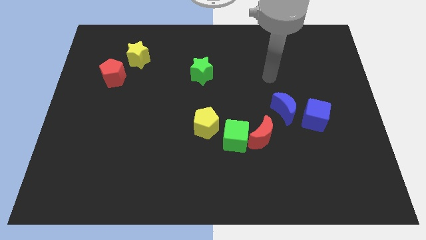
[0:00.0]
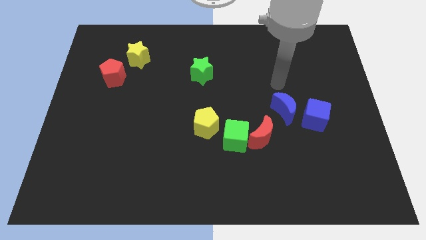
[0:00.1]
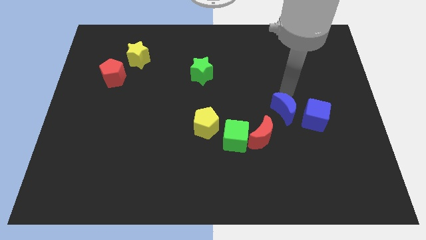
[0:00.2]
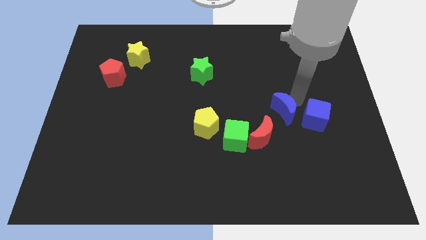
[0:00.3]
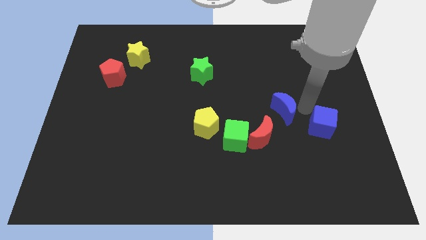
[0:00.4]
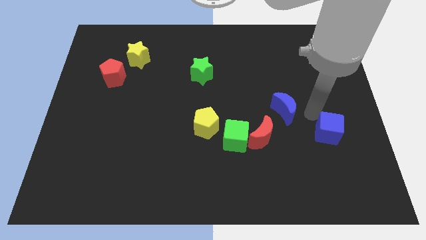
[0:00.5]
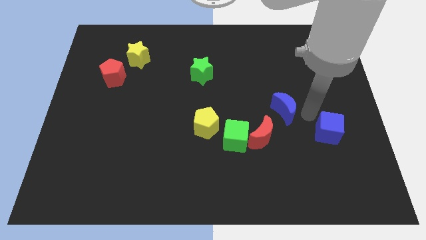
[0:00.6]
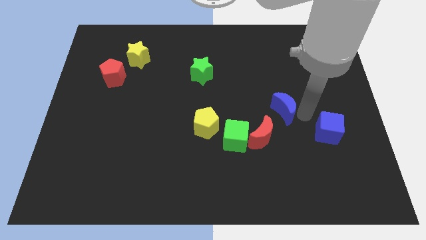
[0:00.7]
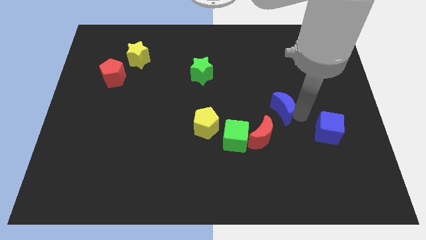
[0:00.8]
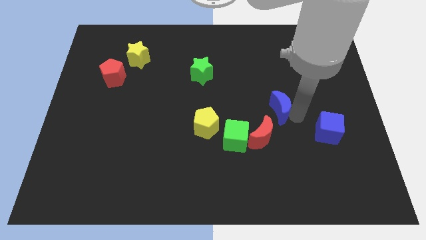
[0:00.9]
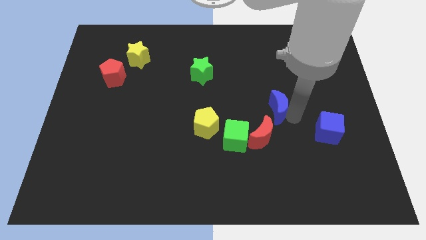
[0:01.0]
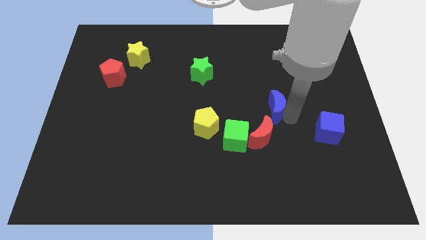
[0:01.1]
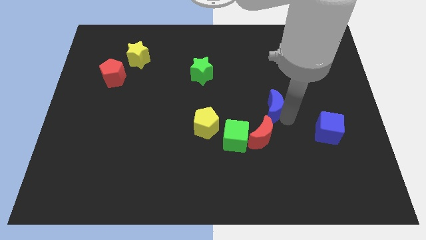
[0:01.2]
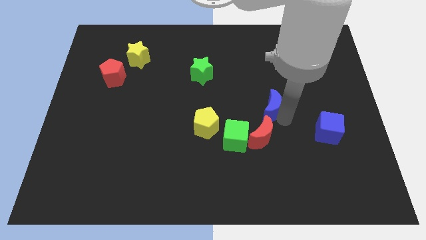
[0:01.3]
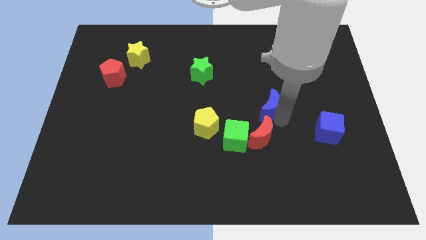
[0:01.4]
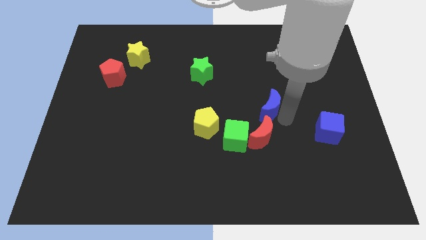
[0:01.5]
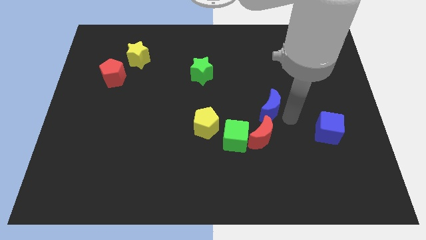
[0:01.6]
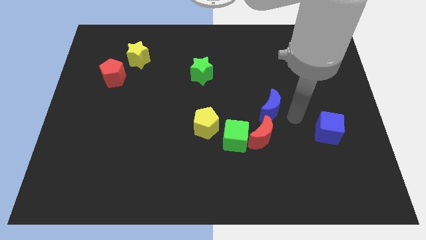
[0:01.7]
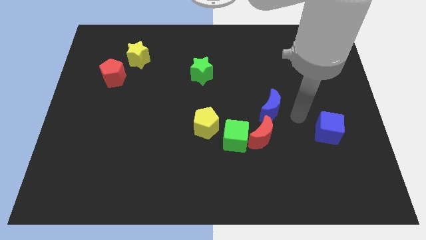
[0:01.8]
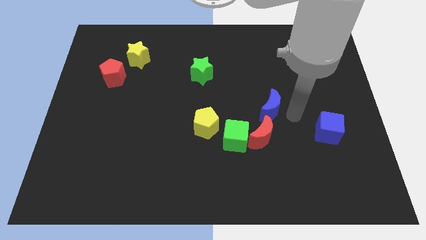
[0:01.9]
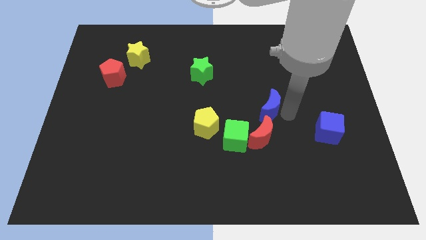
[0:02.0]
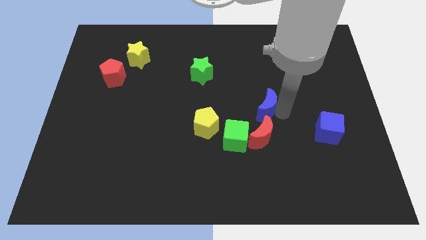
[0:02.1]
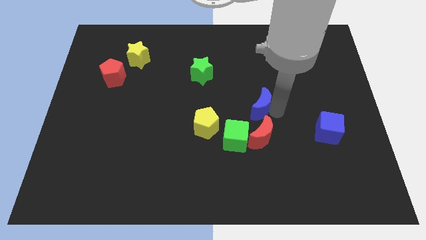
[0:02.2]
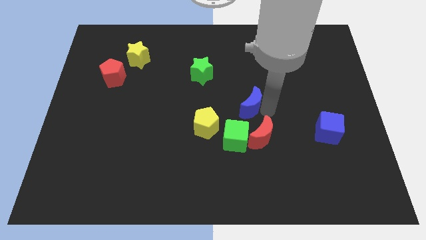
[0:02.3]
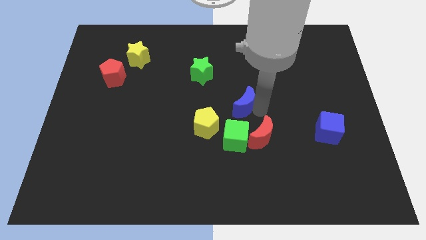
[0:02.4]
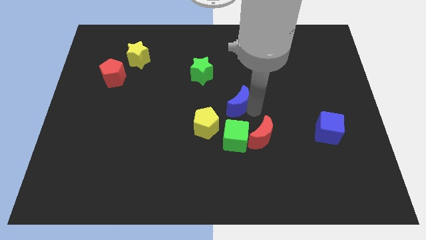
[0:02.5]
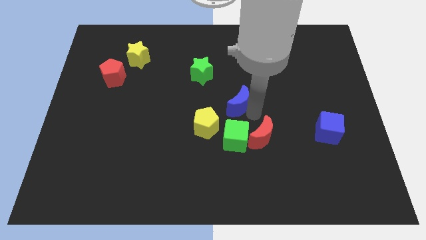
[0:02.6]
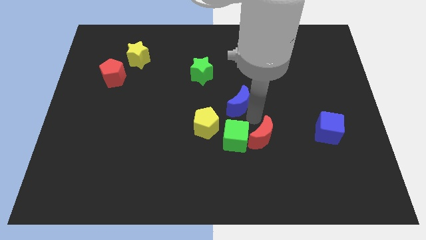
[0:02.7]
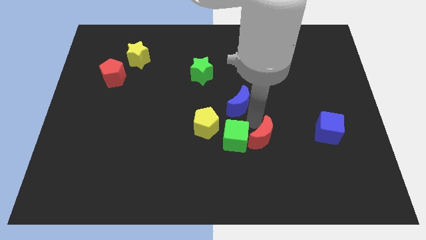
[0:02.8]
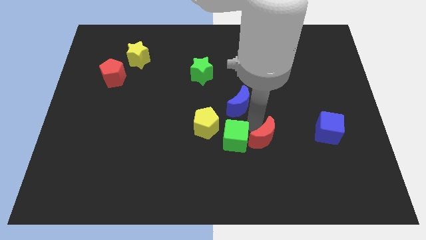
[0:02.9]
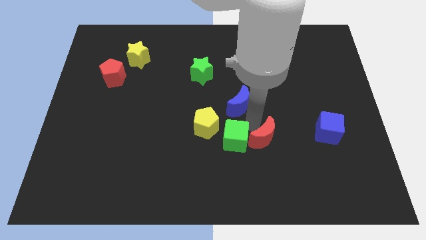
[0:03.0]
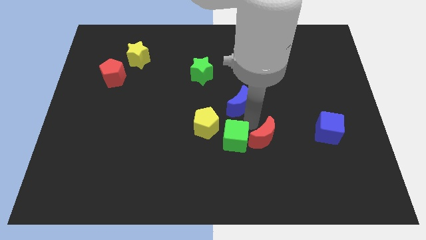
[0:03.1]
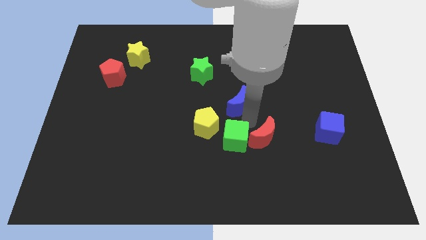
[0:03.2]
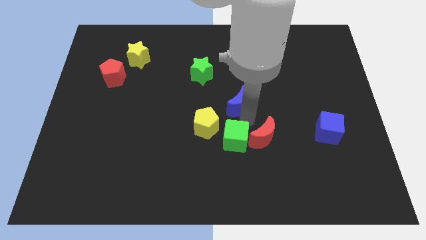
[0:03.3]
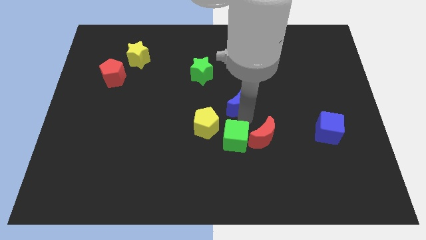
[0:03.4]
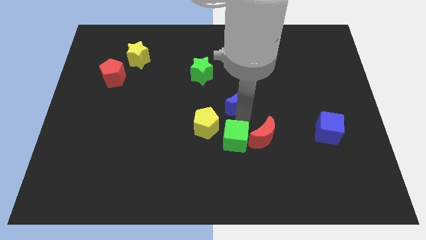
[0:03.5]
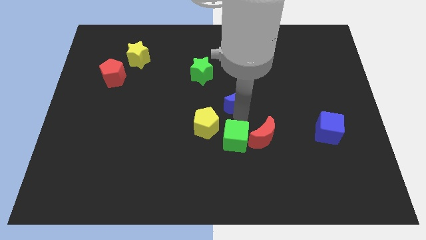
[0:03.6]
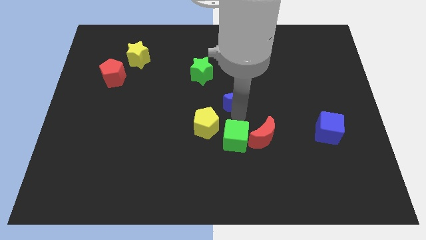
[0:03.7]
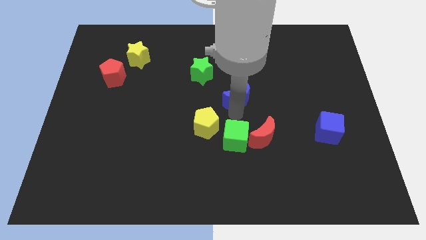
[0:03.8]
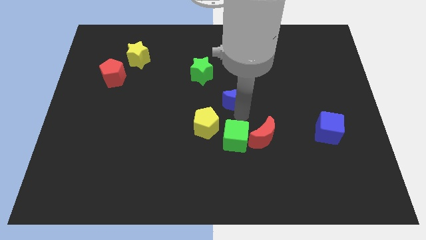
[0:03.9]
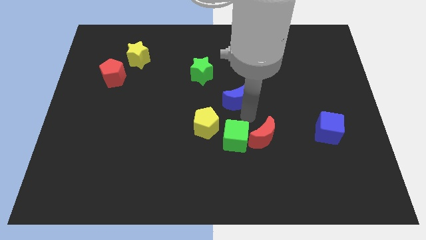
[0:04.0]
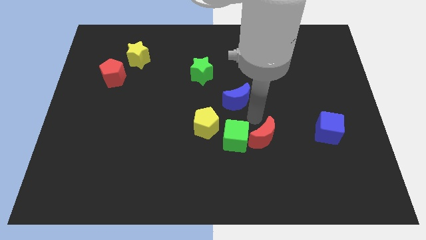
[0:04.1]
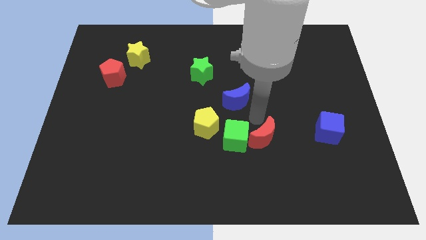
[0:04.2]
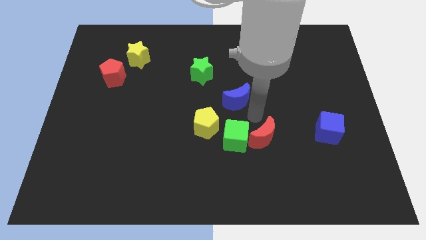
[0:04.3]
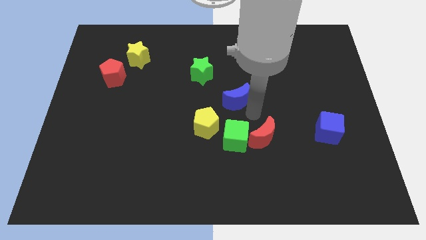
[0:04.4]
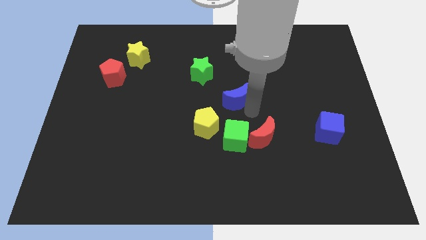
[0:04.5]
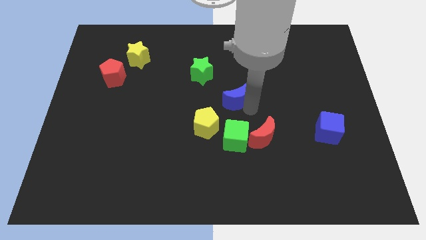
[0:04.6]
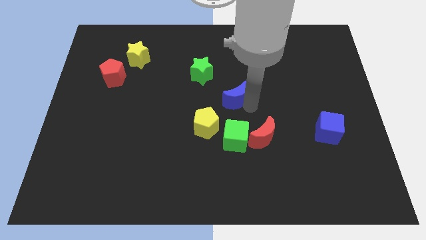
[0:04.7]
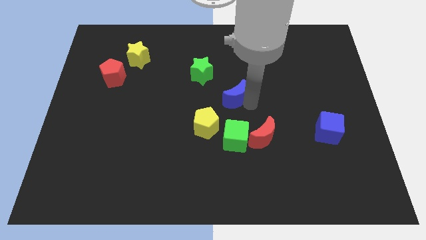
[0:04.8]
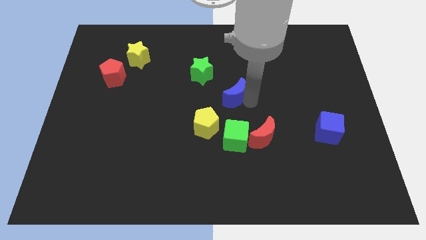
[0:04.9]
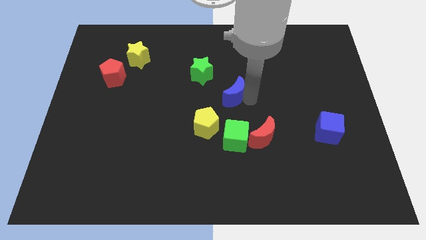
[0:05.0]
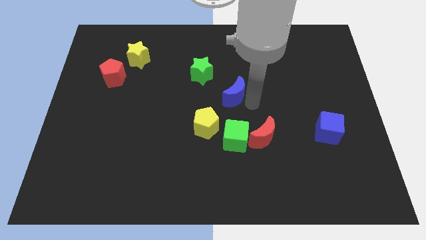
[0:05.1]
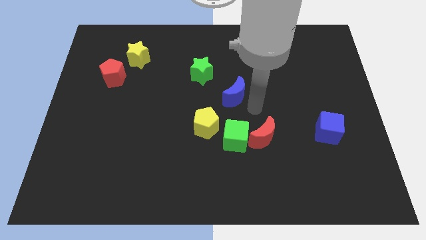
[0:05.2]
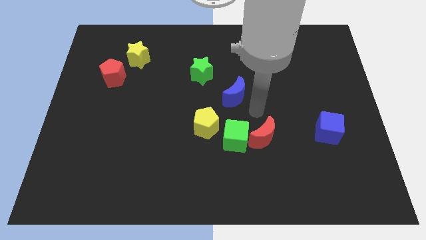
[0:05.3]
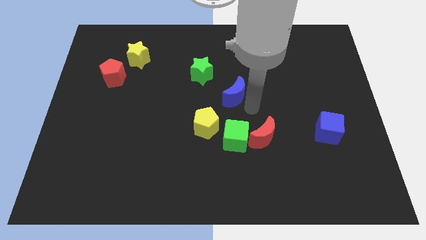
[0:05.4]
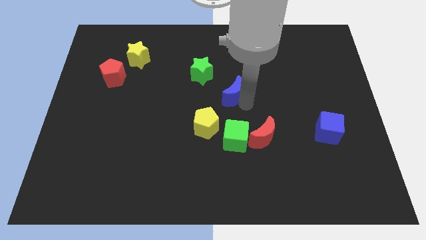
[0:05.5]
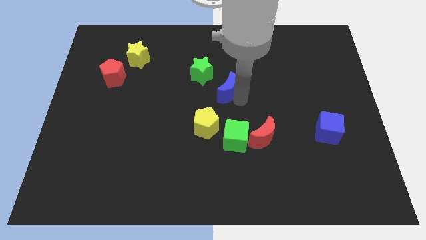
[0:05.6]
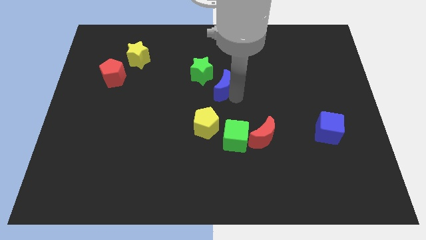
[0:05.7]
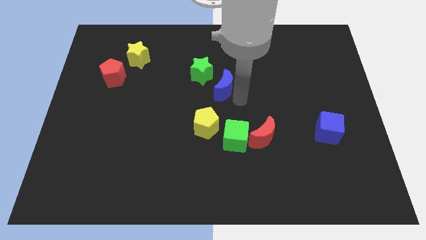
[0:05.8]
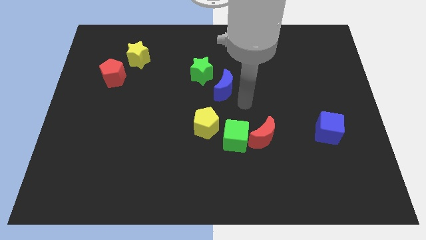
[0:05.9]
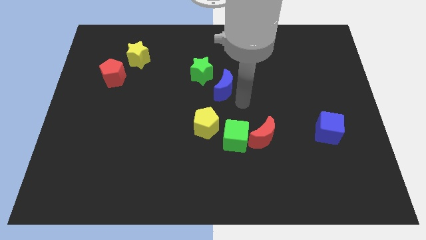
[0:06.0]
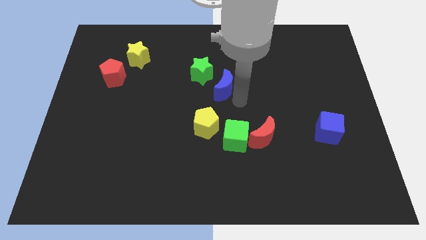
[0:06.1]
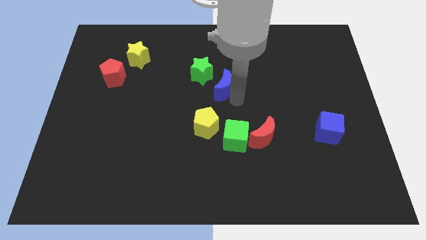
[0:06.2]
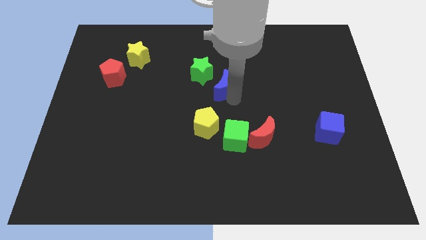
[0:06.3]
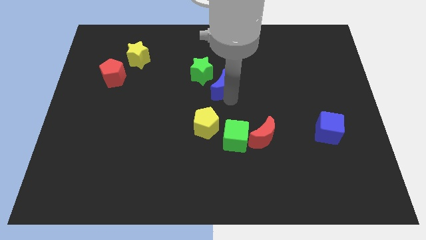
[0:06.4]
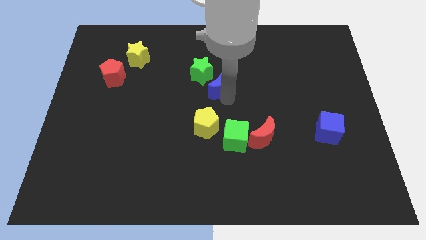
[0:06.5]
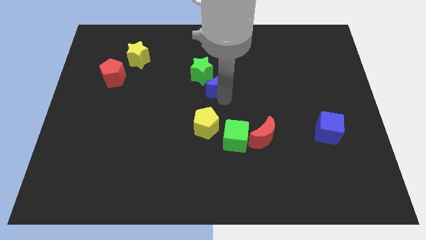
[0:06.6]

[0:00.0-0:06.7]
put the blue moon towards the green star

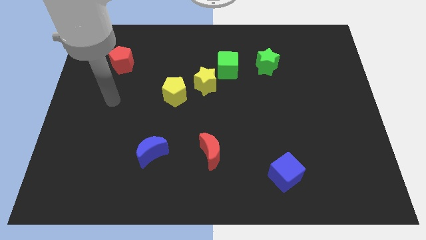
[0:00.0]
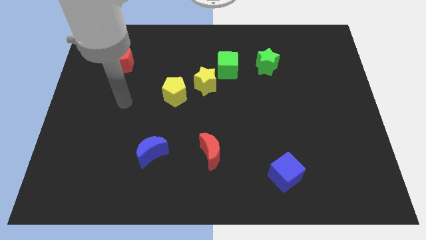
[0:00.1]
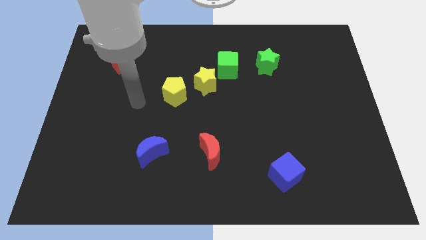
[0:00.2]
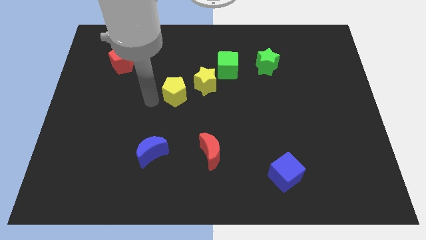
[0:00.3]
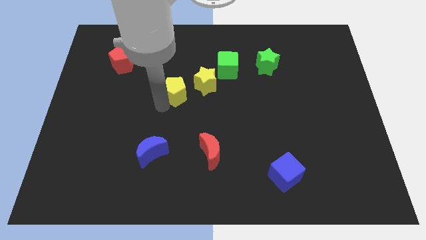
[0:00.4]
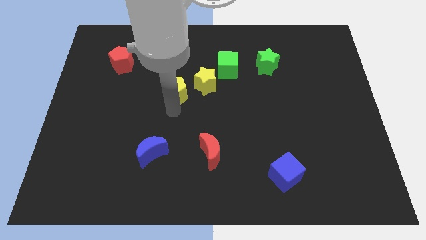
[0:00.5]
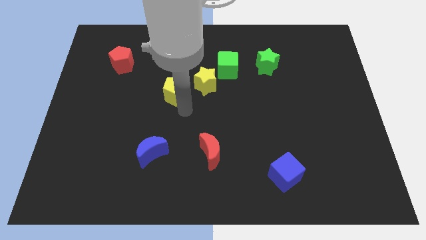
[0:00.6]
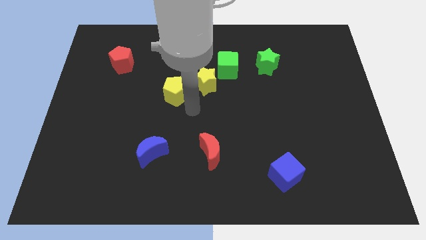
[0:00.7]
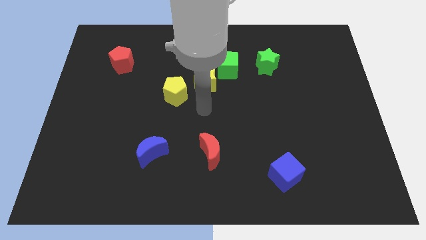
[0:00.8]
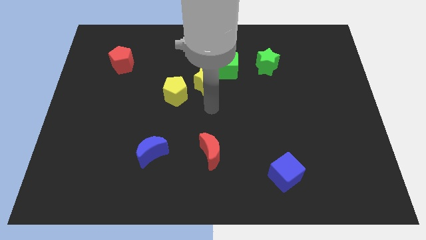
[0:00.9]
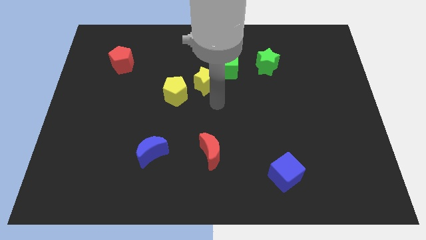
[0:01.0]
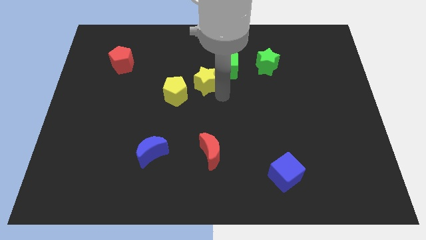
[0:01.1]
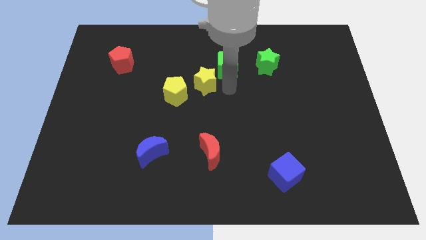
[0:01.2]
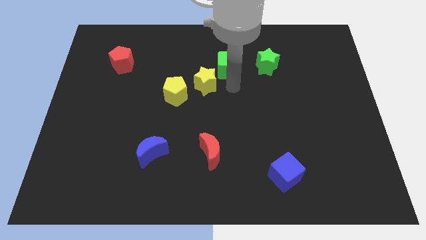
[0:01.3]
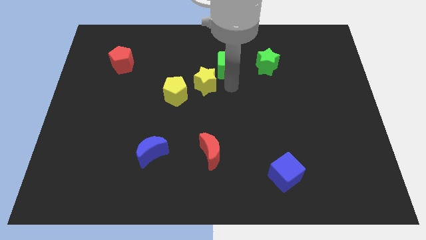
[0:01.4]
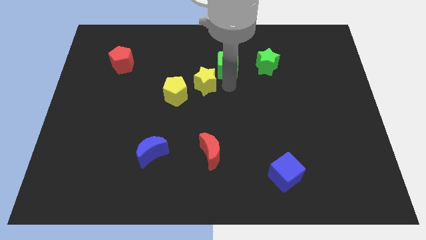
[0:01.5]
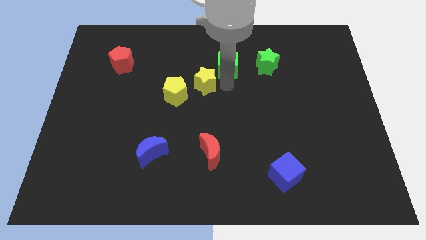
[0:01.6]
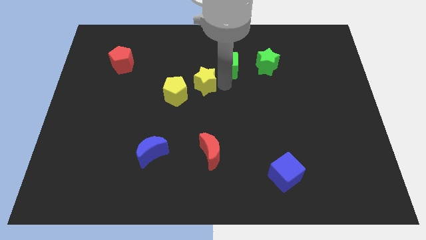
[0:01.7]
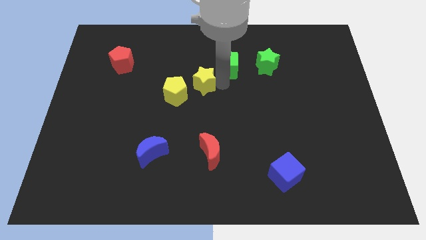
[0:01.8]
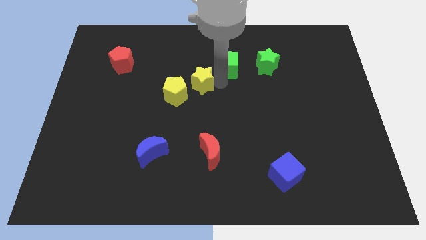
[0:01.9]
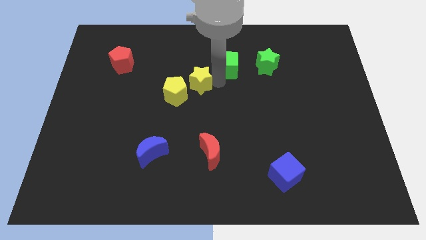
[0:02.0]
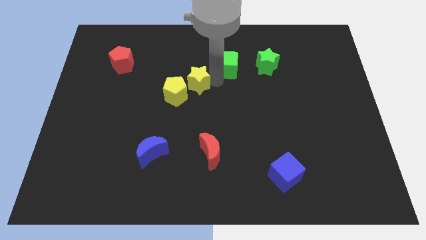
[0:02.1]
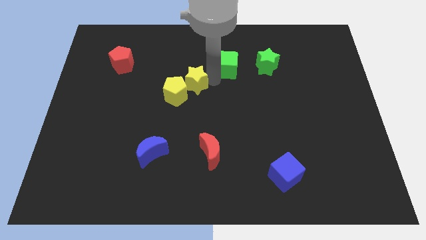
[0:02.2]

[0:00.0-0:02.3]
slide the yellow star next to the yellow pentagon
